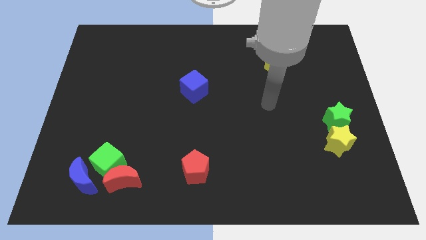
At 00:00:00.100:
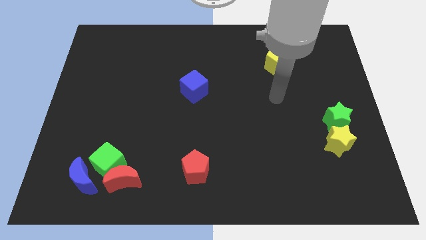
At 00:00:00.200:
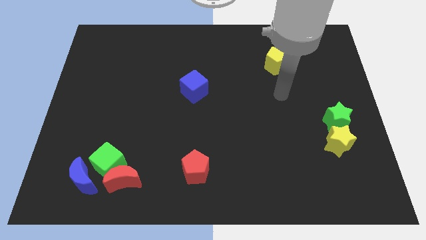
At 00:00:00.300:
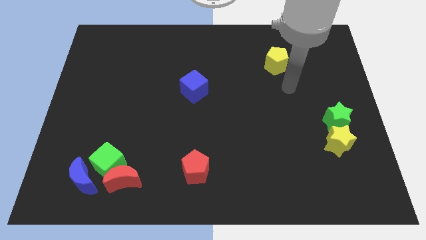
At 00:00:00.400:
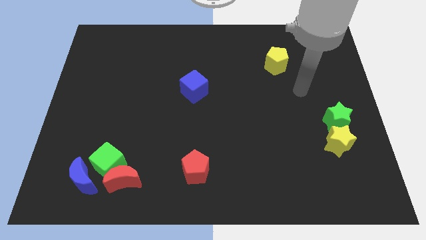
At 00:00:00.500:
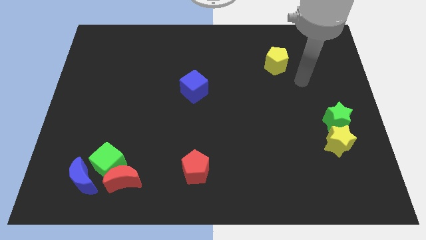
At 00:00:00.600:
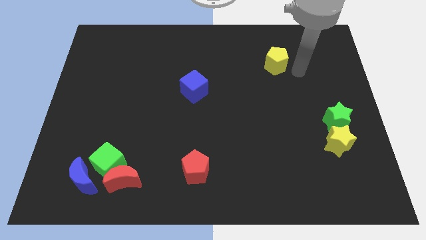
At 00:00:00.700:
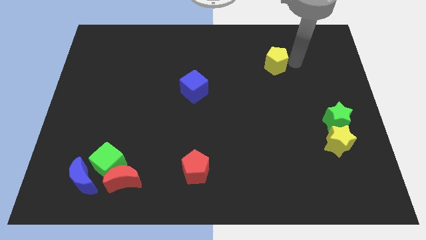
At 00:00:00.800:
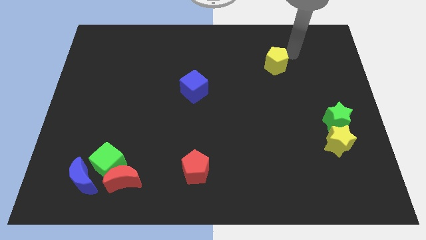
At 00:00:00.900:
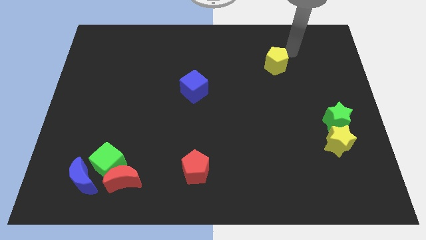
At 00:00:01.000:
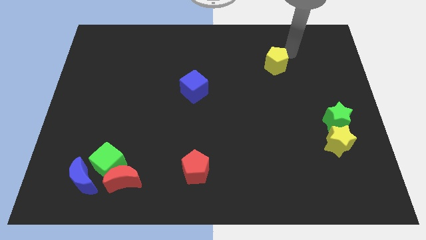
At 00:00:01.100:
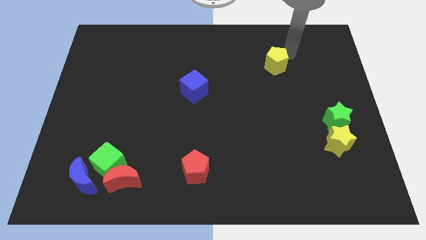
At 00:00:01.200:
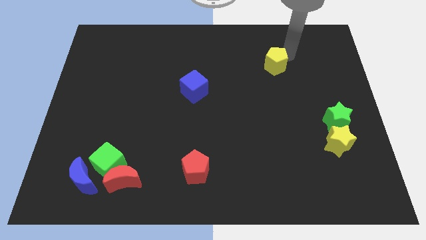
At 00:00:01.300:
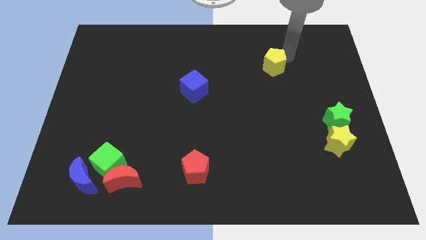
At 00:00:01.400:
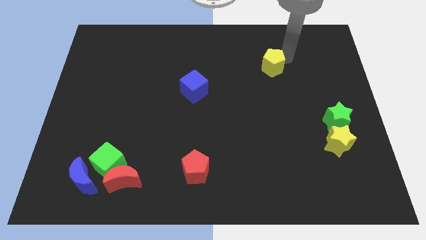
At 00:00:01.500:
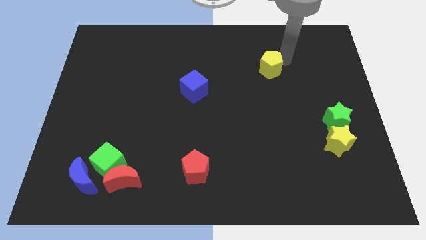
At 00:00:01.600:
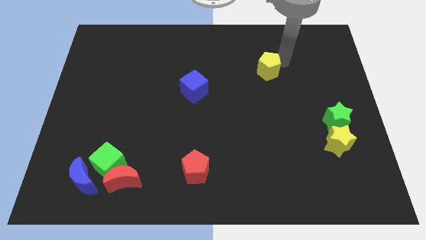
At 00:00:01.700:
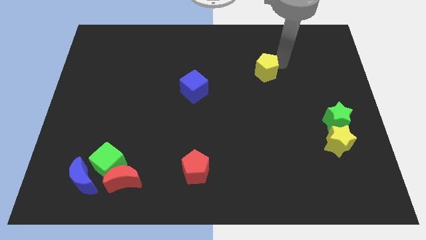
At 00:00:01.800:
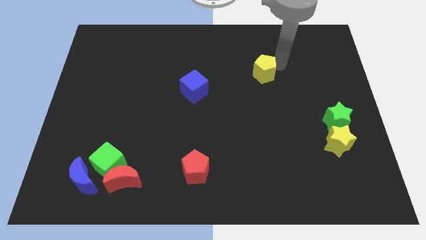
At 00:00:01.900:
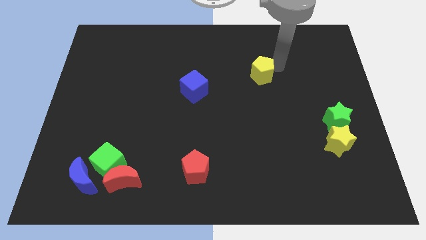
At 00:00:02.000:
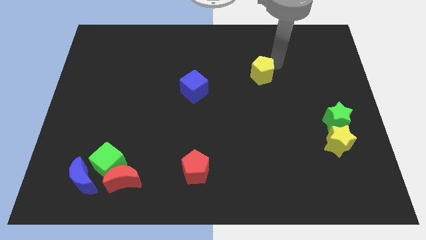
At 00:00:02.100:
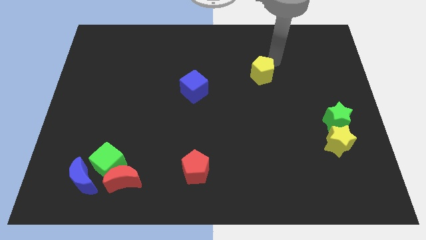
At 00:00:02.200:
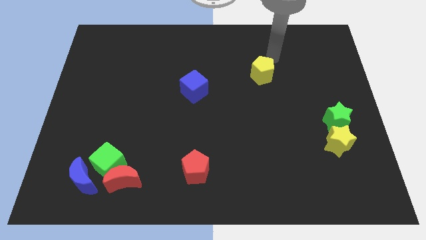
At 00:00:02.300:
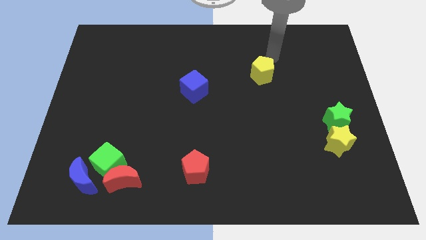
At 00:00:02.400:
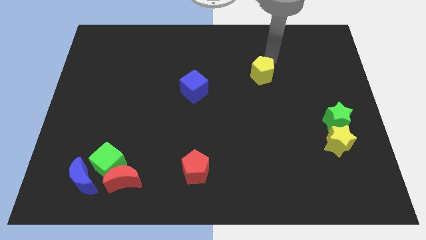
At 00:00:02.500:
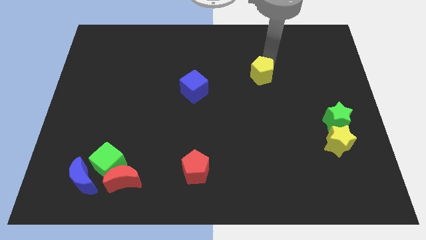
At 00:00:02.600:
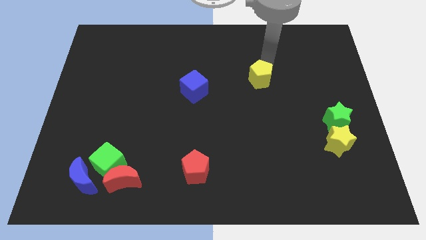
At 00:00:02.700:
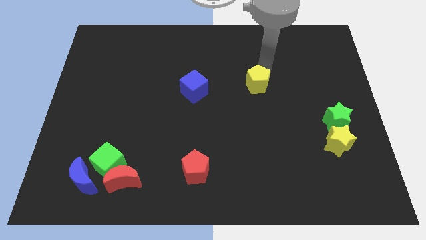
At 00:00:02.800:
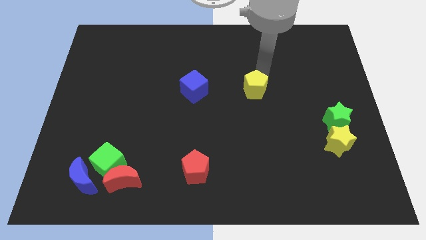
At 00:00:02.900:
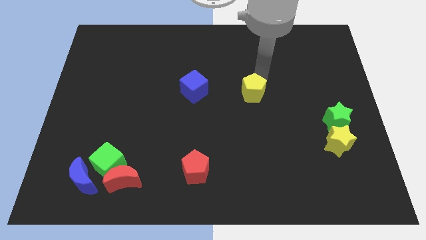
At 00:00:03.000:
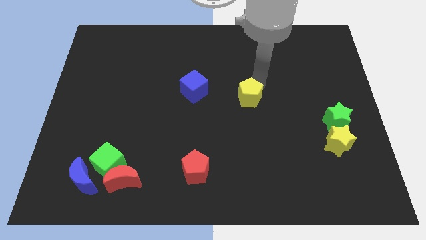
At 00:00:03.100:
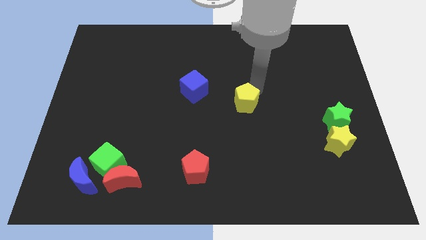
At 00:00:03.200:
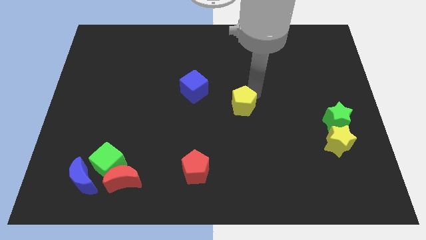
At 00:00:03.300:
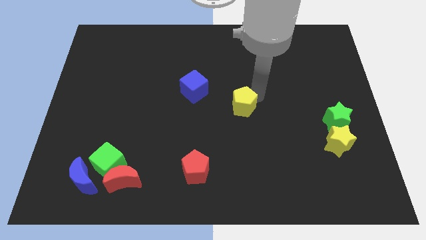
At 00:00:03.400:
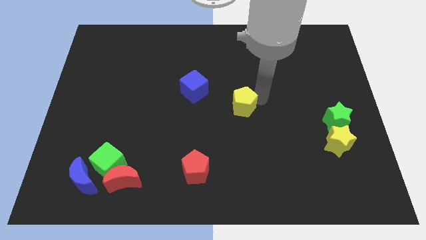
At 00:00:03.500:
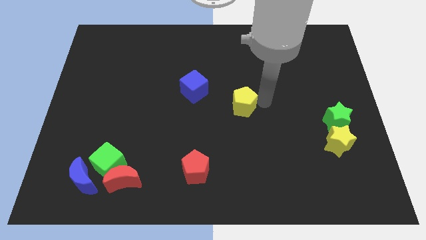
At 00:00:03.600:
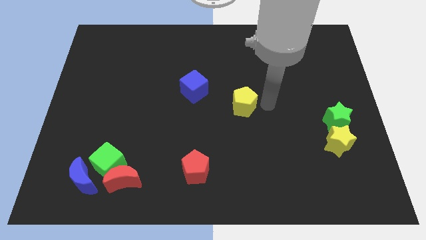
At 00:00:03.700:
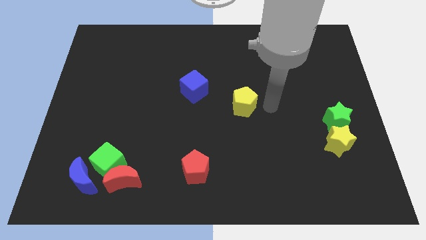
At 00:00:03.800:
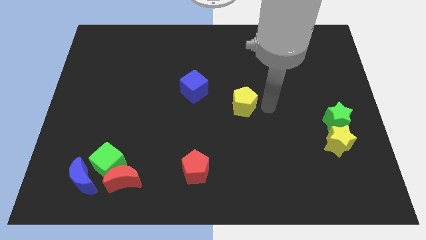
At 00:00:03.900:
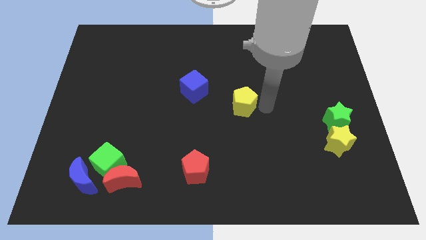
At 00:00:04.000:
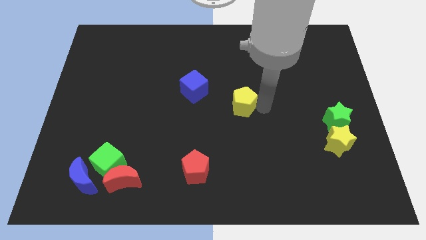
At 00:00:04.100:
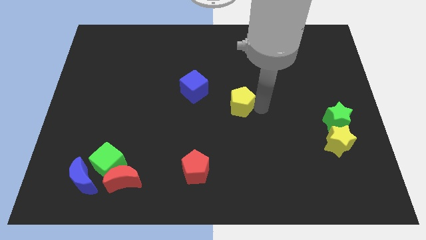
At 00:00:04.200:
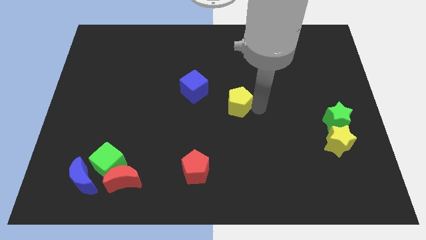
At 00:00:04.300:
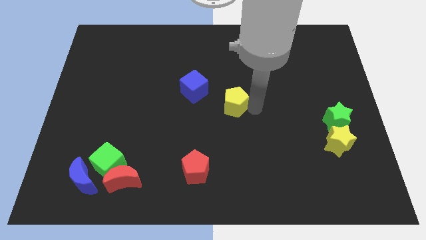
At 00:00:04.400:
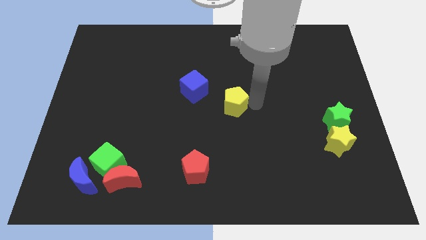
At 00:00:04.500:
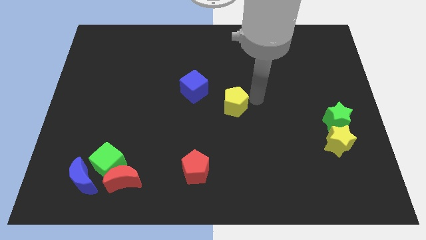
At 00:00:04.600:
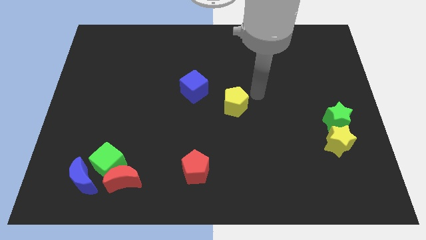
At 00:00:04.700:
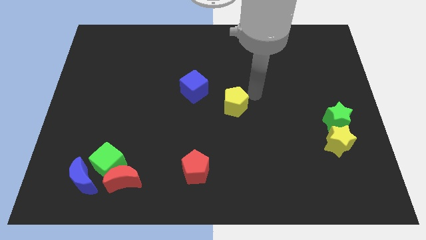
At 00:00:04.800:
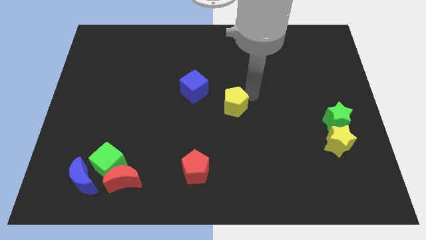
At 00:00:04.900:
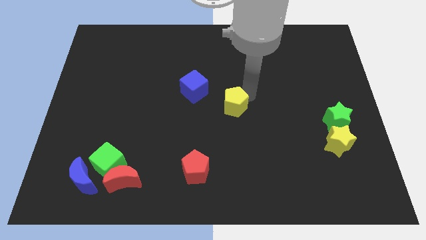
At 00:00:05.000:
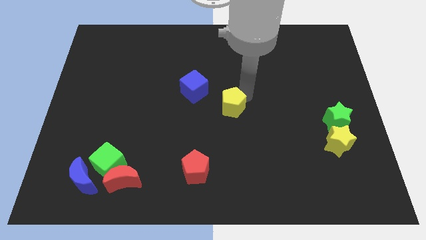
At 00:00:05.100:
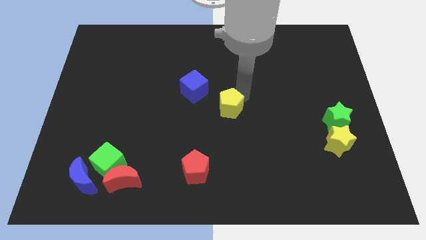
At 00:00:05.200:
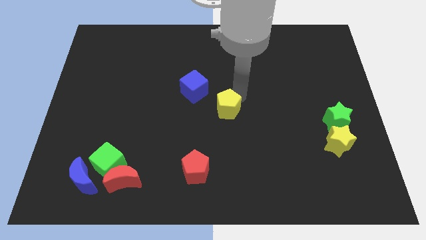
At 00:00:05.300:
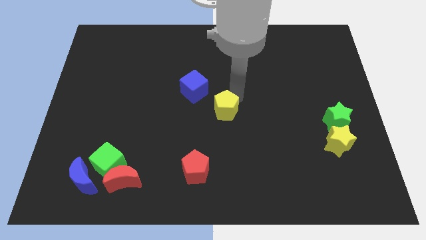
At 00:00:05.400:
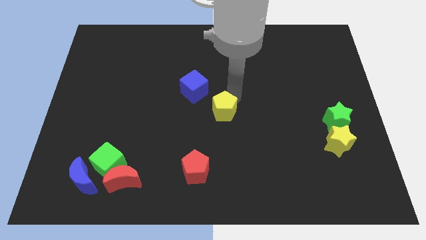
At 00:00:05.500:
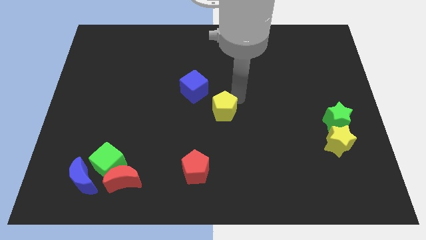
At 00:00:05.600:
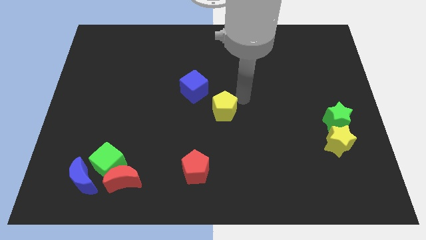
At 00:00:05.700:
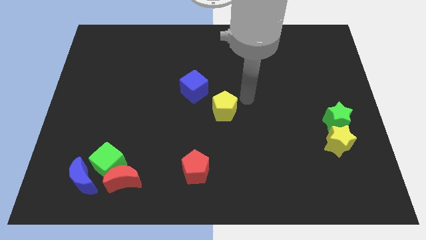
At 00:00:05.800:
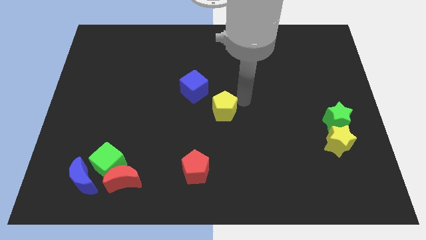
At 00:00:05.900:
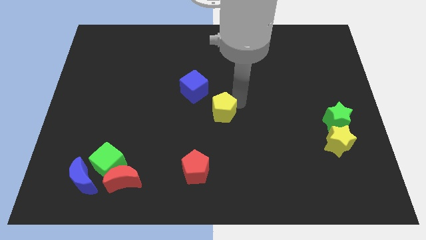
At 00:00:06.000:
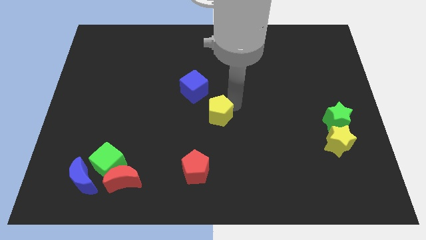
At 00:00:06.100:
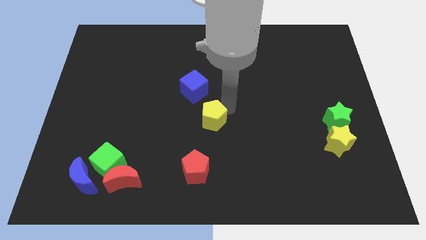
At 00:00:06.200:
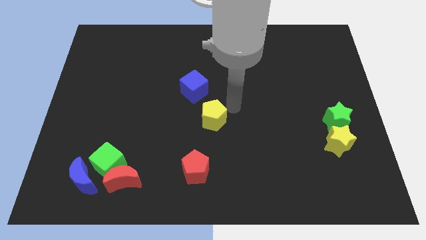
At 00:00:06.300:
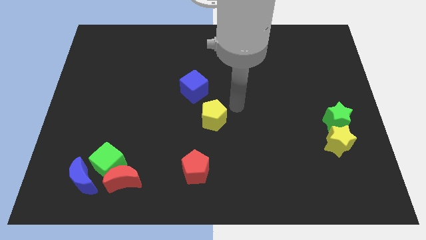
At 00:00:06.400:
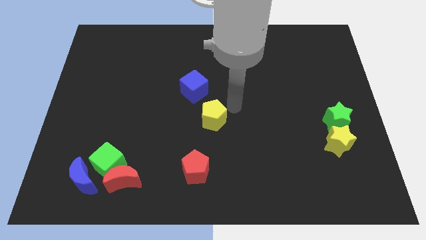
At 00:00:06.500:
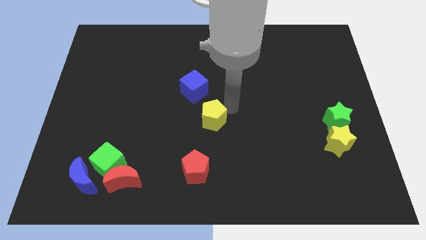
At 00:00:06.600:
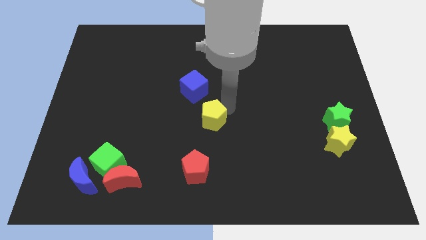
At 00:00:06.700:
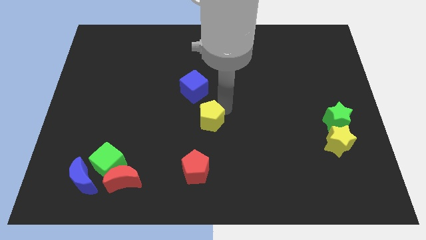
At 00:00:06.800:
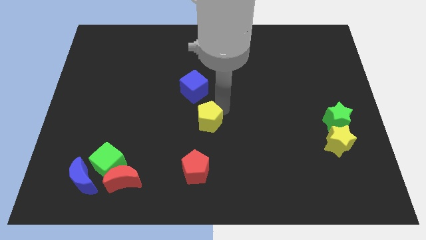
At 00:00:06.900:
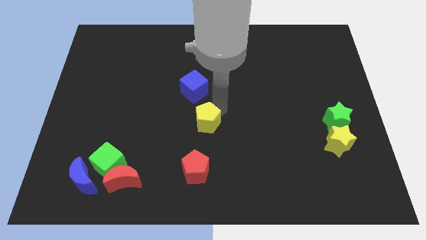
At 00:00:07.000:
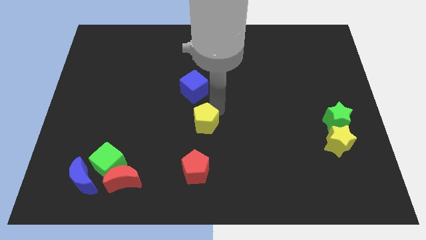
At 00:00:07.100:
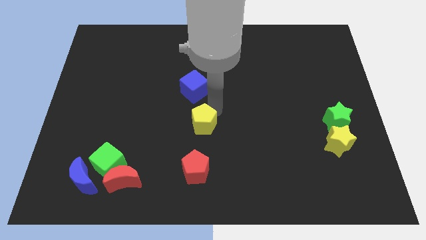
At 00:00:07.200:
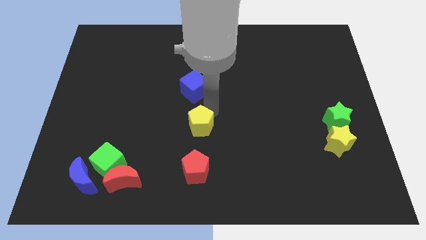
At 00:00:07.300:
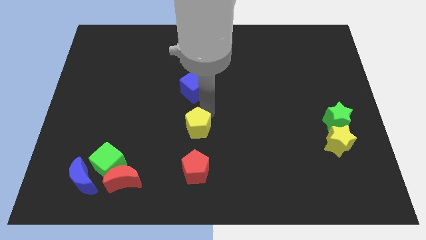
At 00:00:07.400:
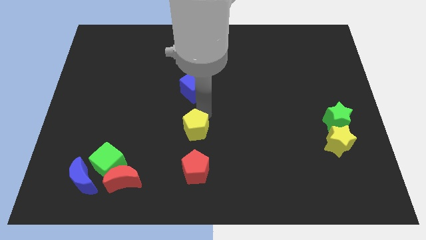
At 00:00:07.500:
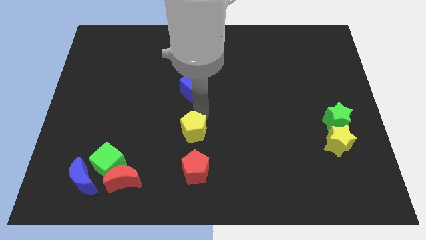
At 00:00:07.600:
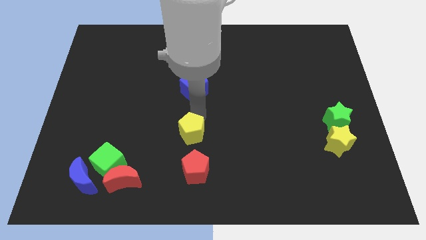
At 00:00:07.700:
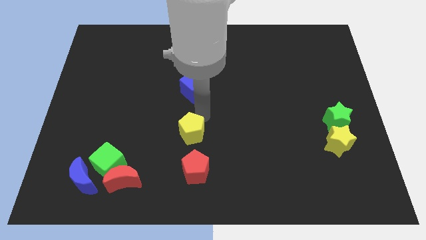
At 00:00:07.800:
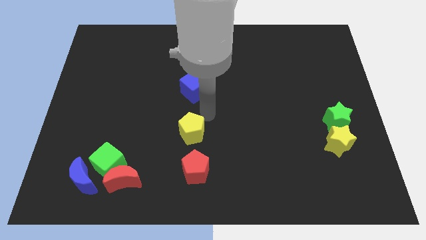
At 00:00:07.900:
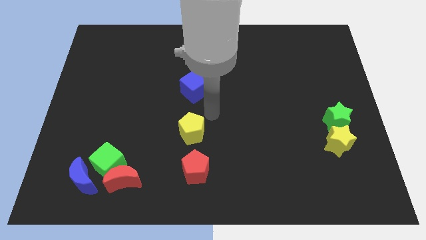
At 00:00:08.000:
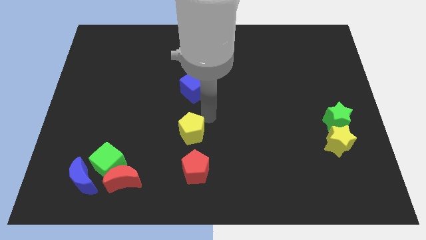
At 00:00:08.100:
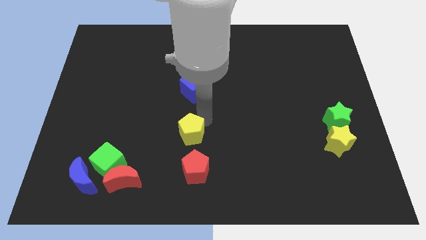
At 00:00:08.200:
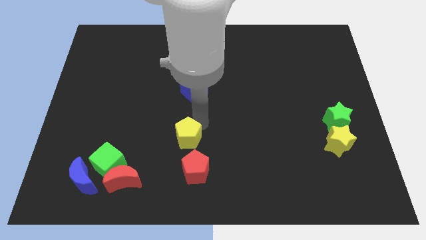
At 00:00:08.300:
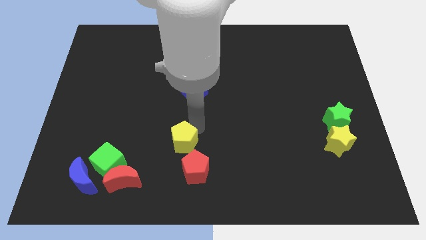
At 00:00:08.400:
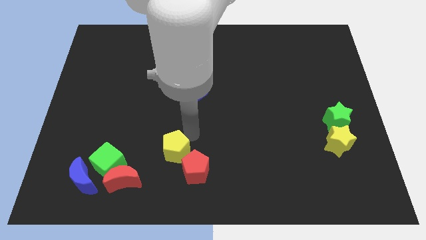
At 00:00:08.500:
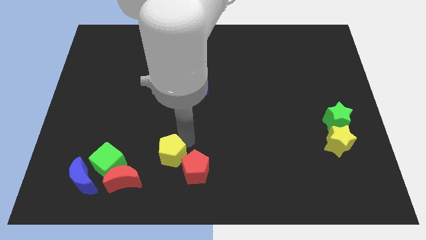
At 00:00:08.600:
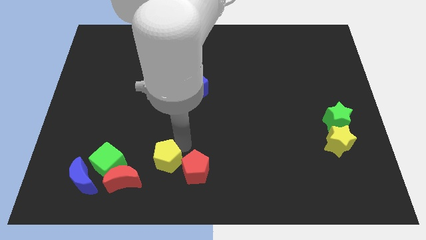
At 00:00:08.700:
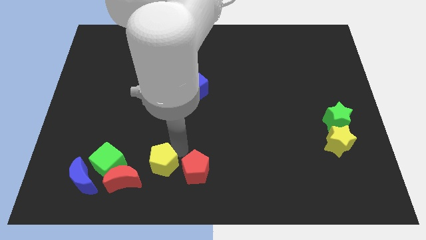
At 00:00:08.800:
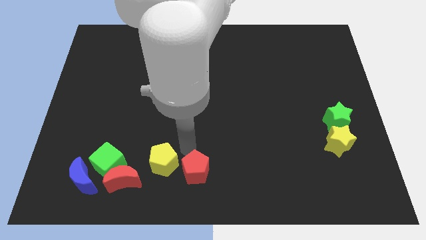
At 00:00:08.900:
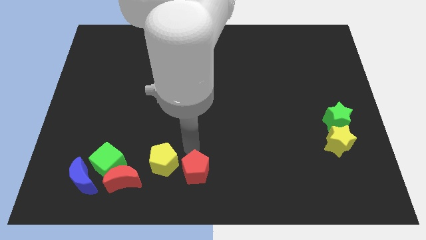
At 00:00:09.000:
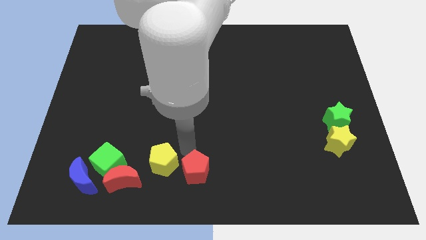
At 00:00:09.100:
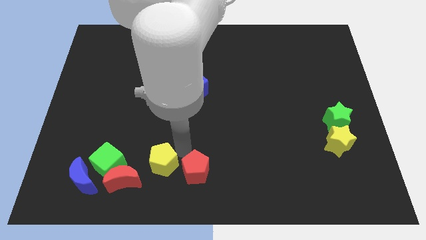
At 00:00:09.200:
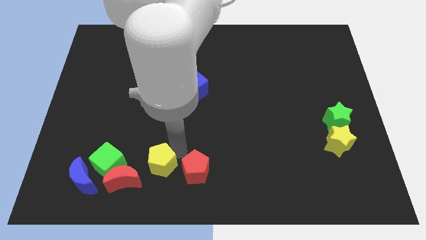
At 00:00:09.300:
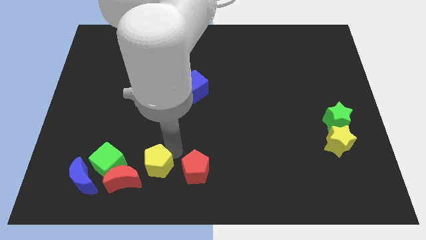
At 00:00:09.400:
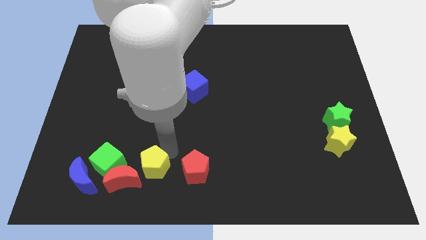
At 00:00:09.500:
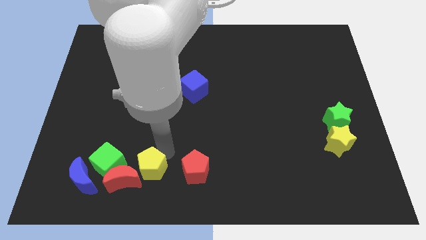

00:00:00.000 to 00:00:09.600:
slide the yellow pentagon next to the red moon
